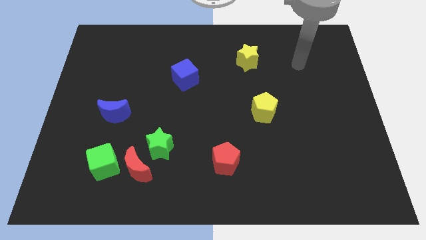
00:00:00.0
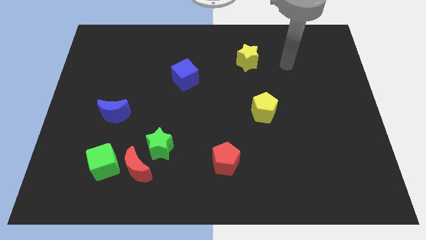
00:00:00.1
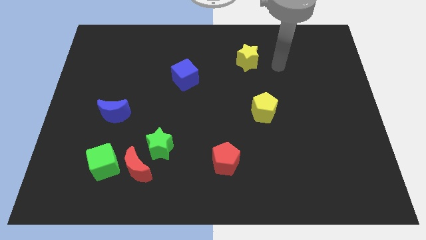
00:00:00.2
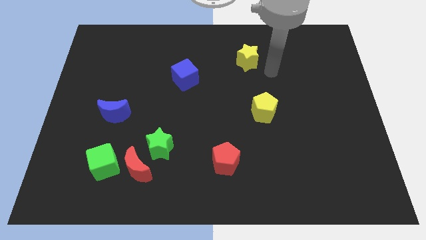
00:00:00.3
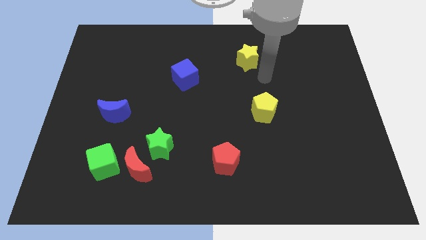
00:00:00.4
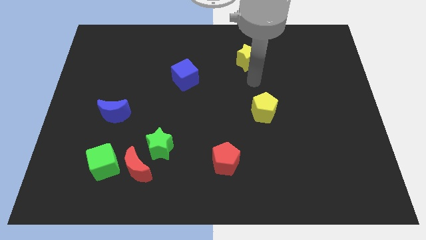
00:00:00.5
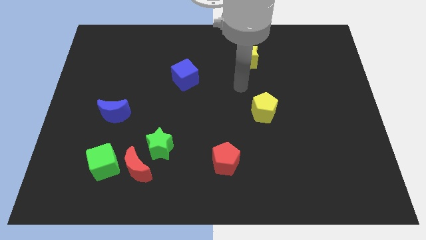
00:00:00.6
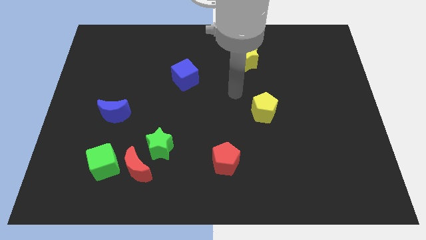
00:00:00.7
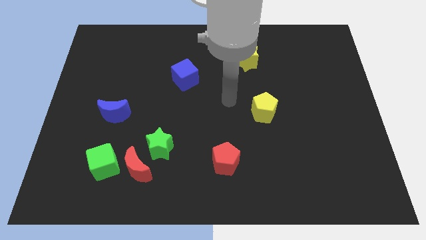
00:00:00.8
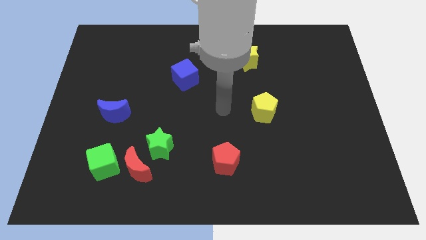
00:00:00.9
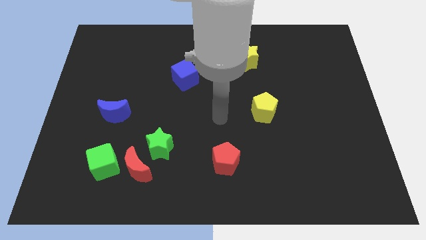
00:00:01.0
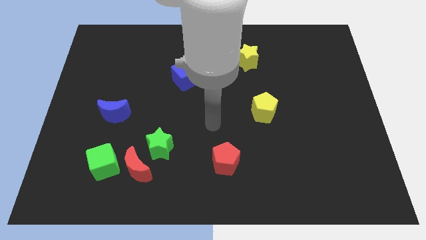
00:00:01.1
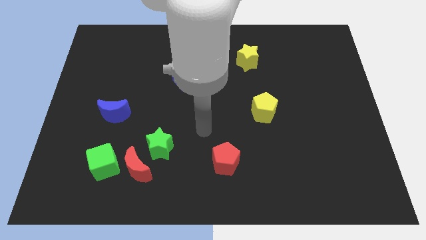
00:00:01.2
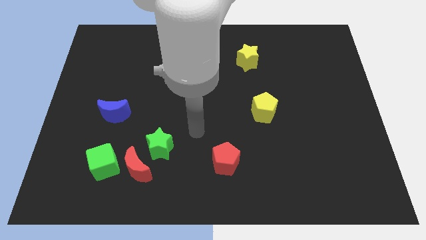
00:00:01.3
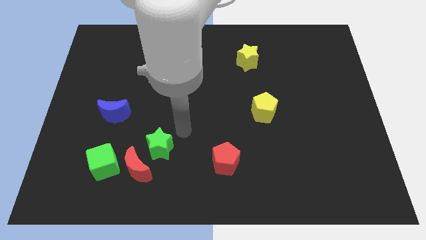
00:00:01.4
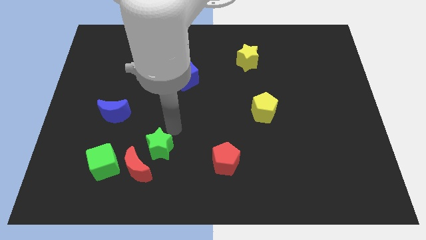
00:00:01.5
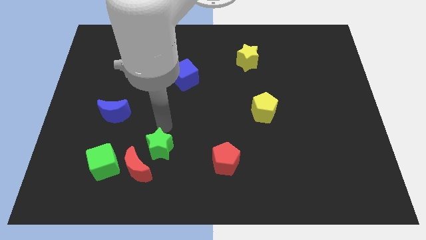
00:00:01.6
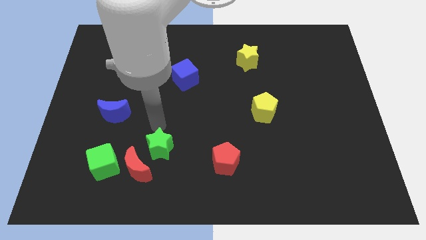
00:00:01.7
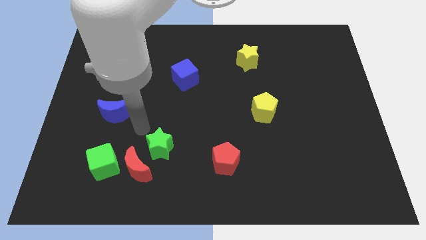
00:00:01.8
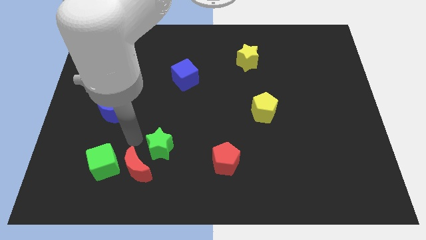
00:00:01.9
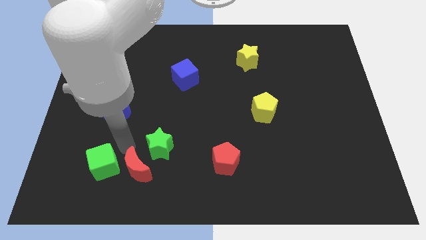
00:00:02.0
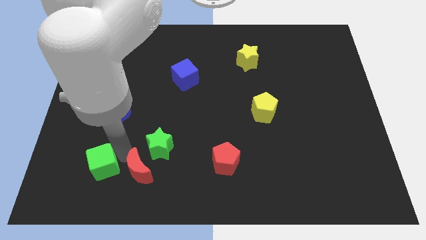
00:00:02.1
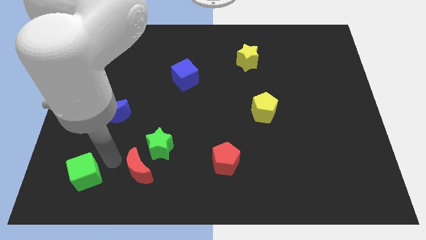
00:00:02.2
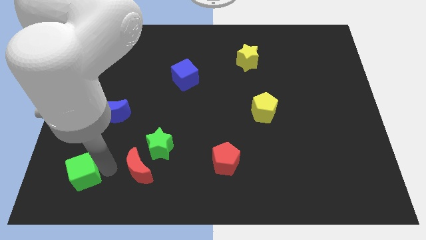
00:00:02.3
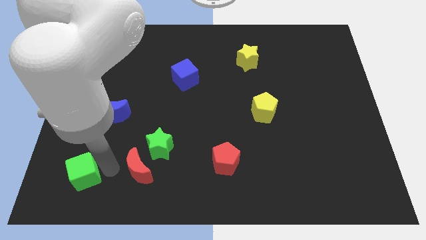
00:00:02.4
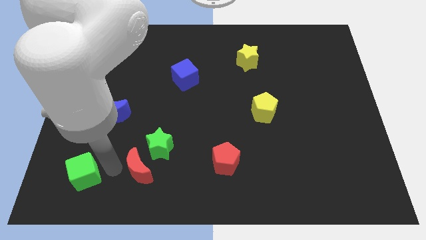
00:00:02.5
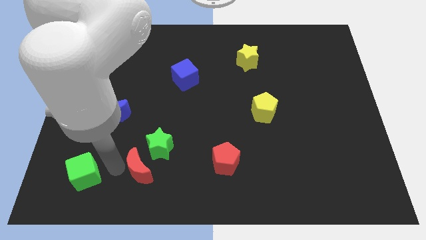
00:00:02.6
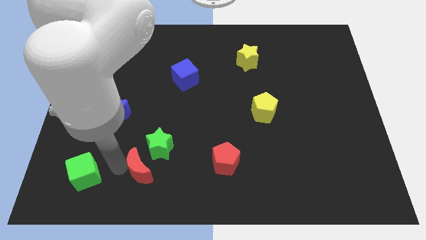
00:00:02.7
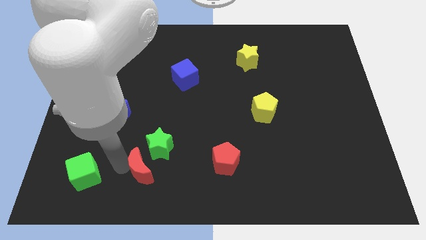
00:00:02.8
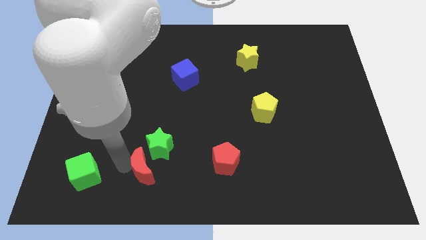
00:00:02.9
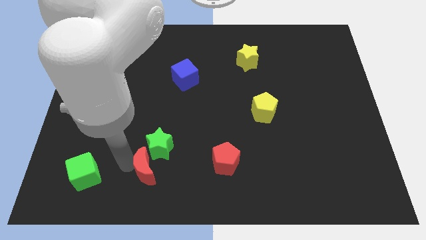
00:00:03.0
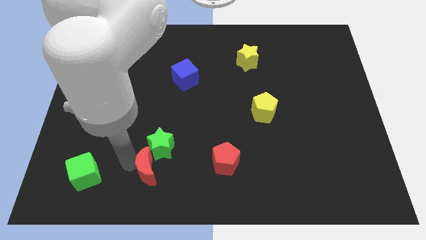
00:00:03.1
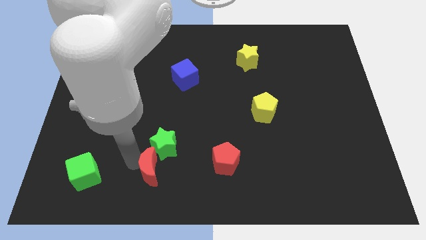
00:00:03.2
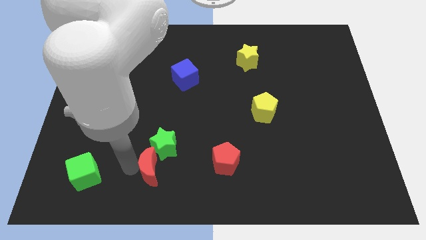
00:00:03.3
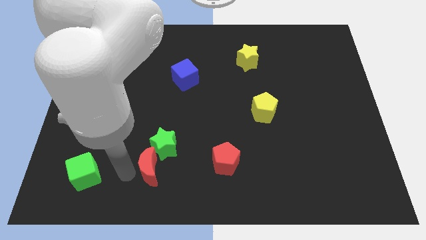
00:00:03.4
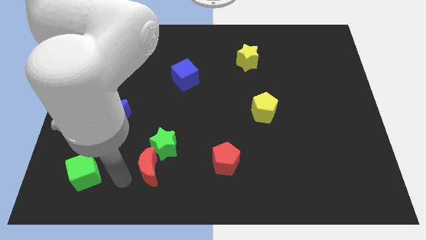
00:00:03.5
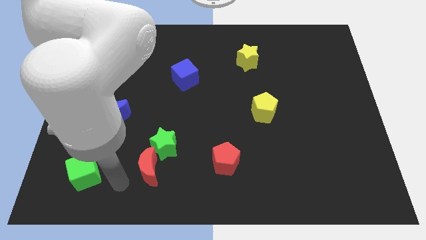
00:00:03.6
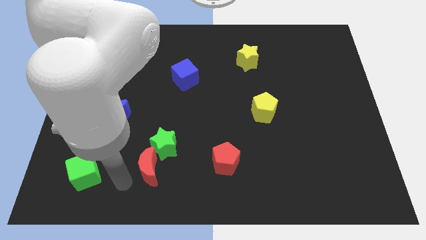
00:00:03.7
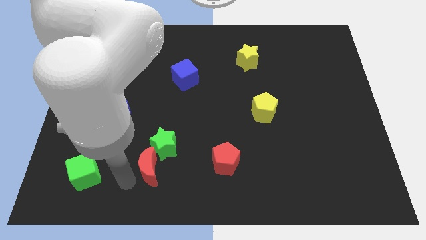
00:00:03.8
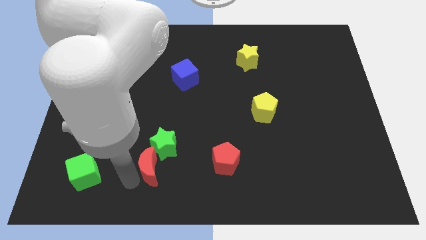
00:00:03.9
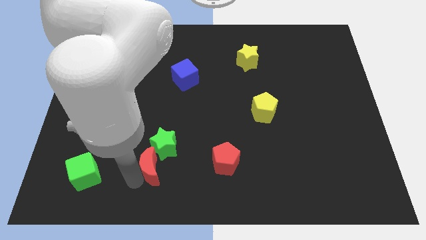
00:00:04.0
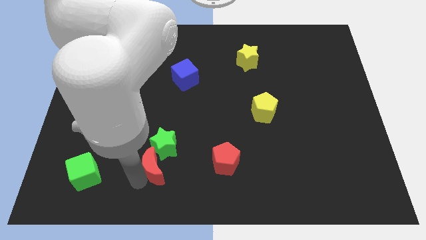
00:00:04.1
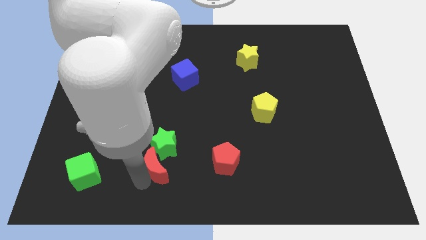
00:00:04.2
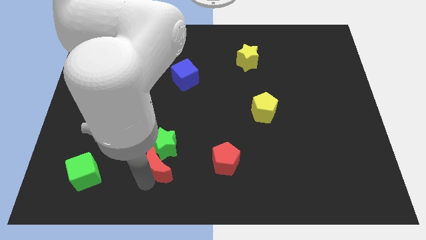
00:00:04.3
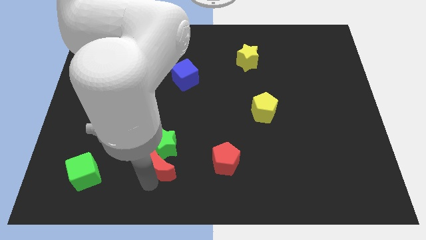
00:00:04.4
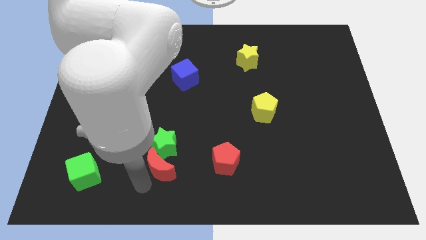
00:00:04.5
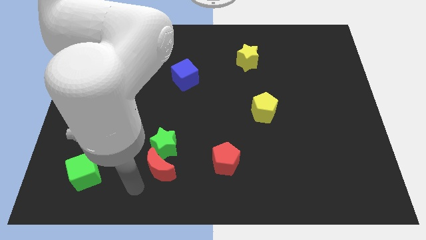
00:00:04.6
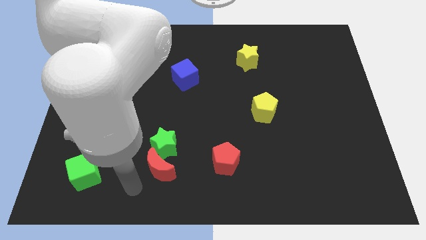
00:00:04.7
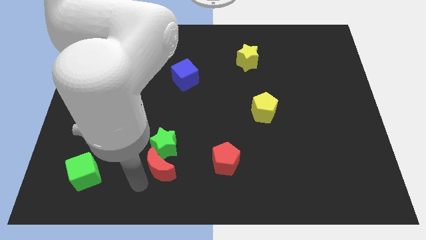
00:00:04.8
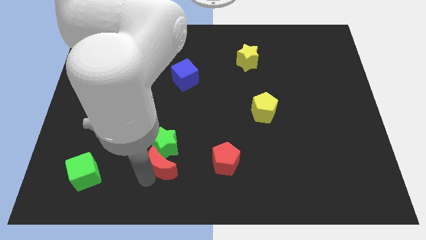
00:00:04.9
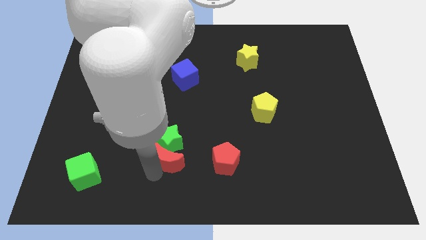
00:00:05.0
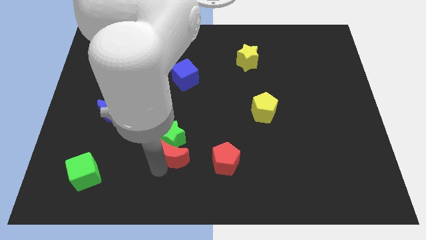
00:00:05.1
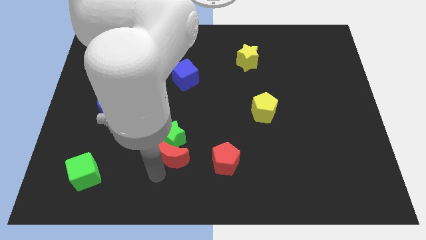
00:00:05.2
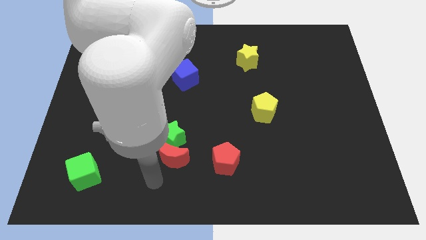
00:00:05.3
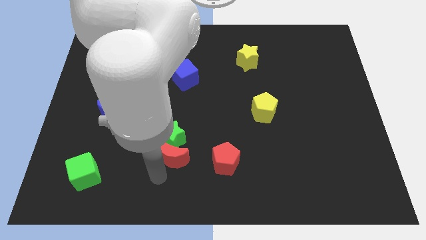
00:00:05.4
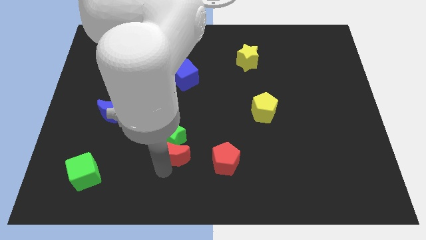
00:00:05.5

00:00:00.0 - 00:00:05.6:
slide the red moon a little diagonally up and to the right

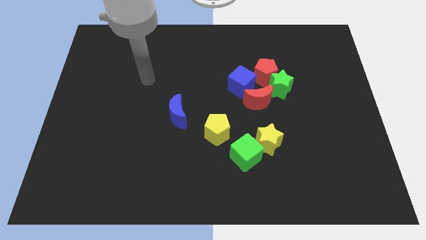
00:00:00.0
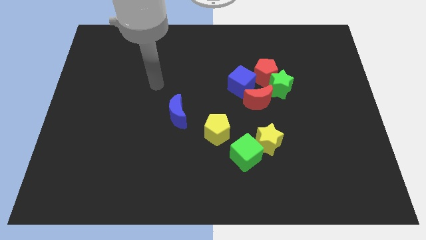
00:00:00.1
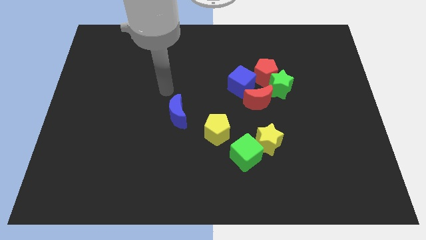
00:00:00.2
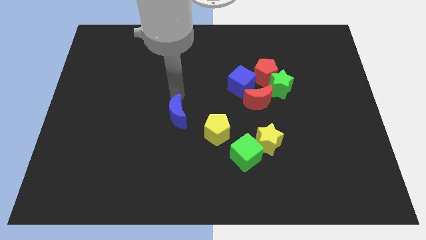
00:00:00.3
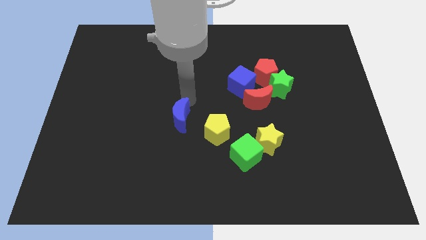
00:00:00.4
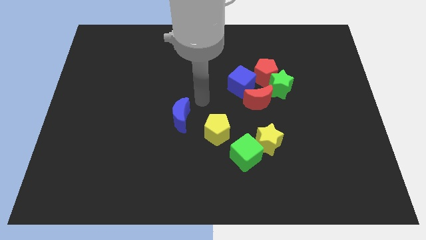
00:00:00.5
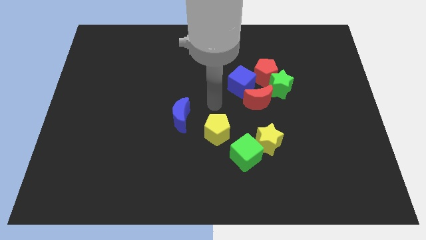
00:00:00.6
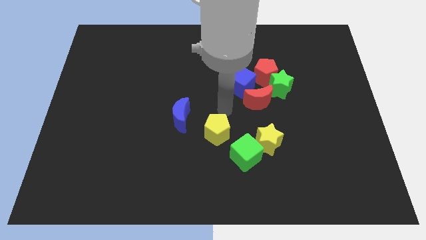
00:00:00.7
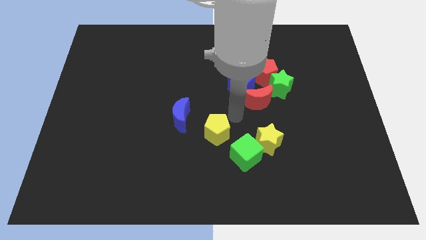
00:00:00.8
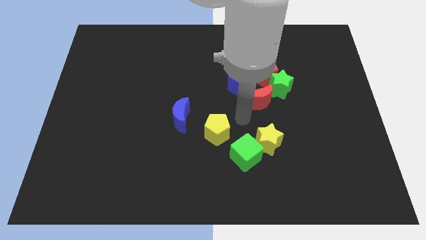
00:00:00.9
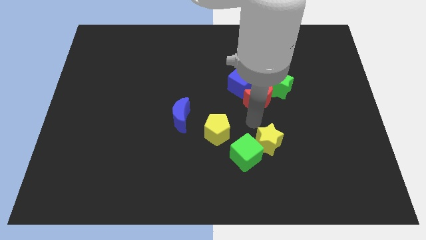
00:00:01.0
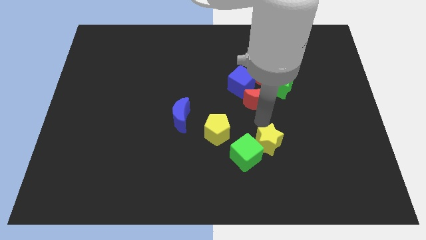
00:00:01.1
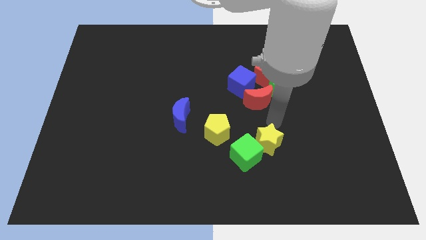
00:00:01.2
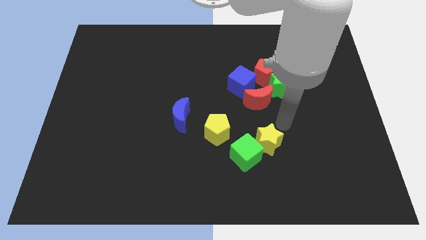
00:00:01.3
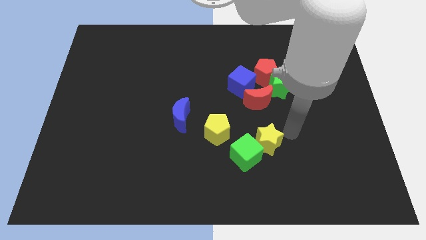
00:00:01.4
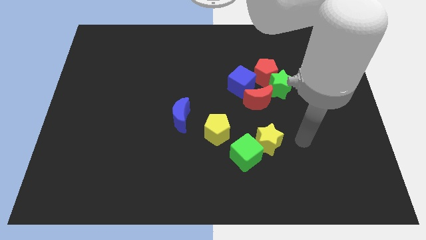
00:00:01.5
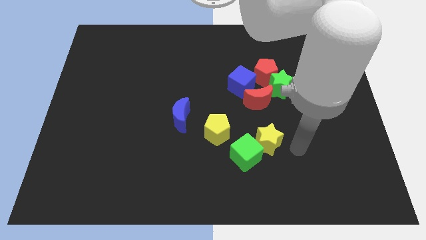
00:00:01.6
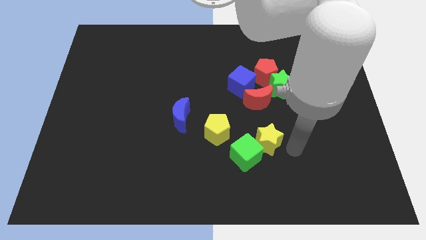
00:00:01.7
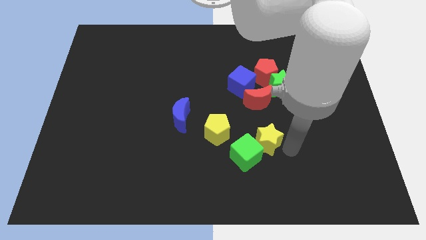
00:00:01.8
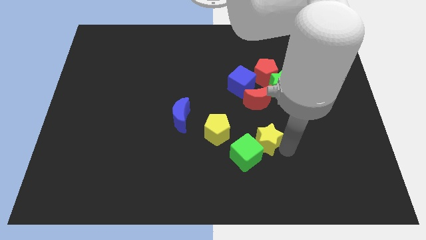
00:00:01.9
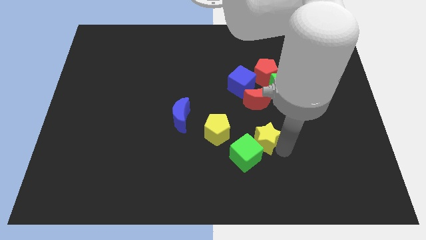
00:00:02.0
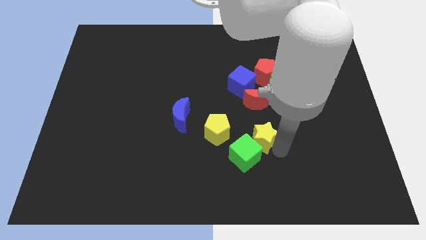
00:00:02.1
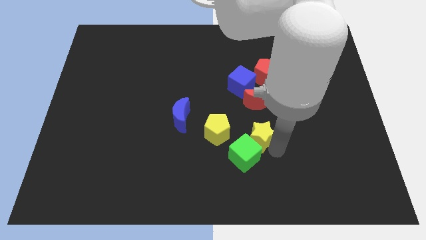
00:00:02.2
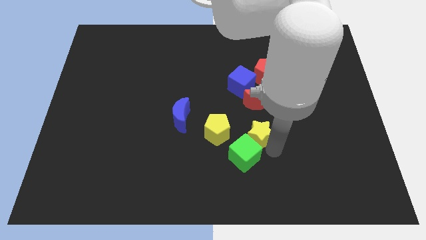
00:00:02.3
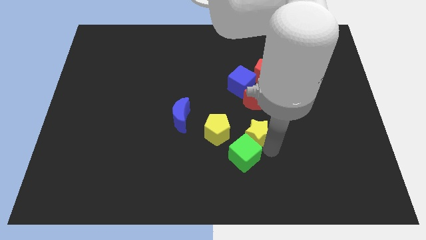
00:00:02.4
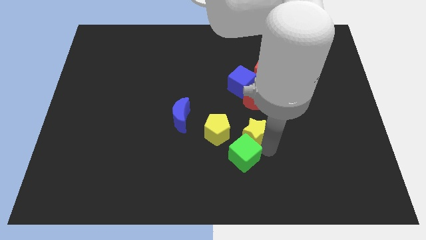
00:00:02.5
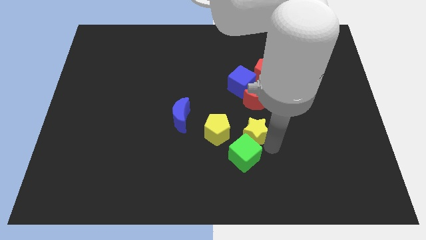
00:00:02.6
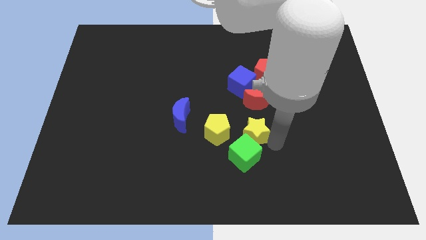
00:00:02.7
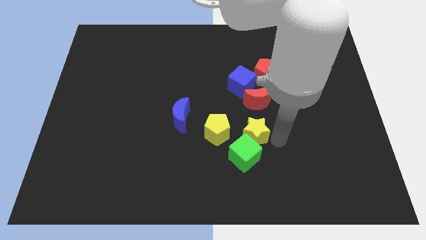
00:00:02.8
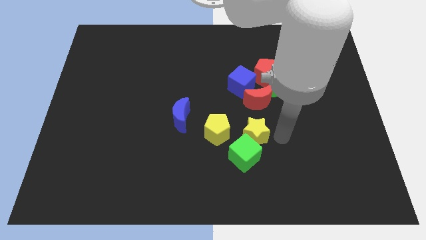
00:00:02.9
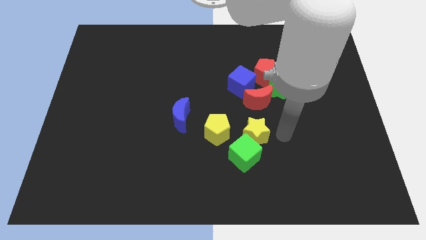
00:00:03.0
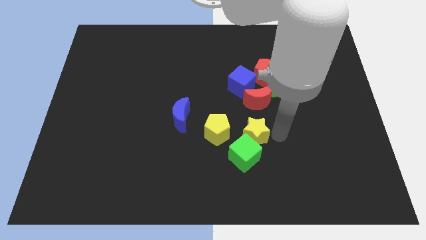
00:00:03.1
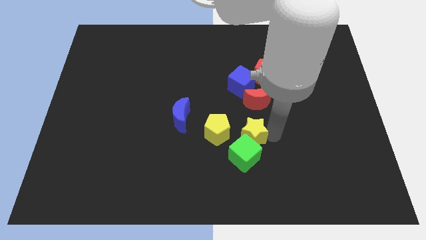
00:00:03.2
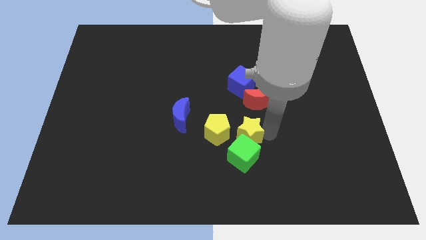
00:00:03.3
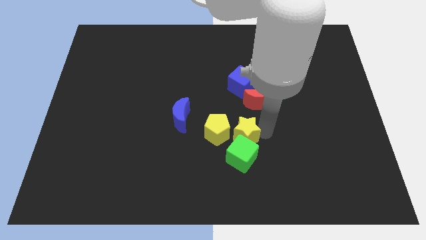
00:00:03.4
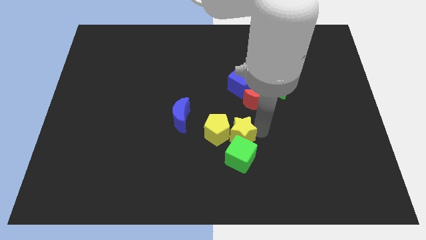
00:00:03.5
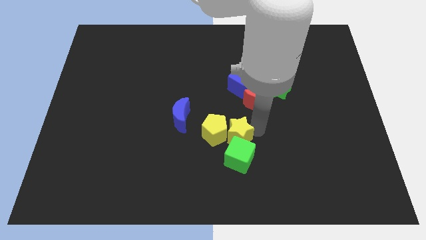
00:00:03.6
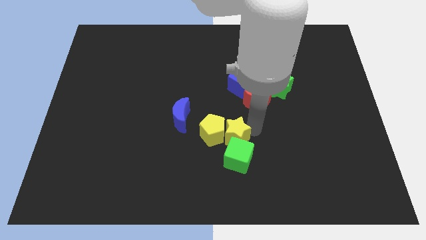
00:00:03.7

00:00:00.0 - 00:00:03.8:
slightly push the yellow star to the left
